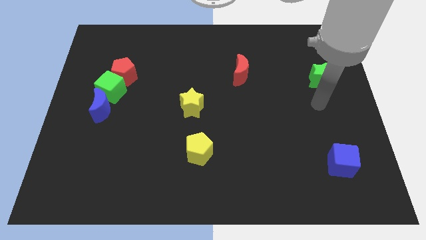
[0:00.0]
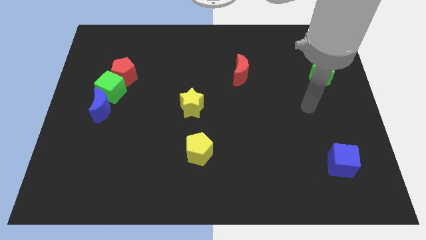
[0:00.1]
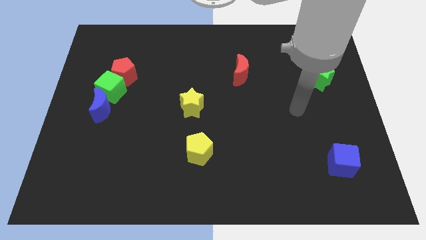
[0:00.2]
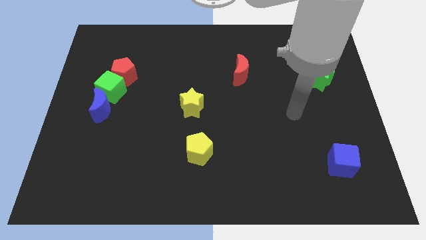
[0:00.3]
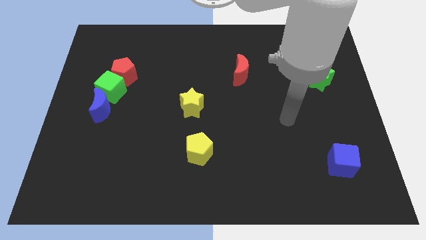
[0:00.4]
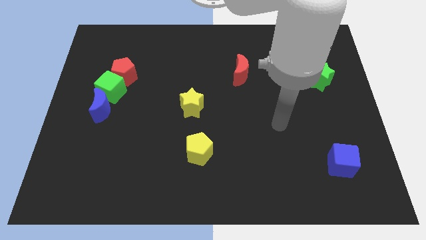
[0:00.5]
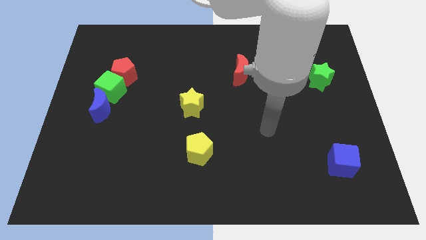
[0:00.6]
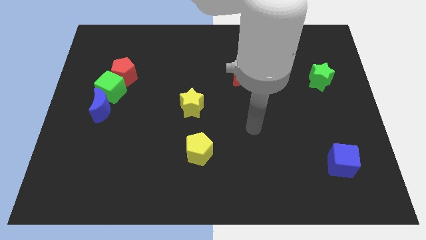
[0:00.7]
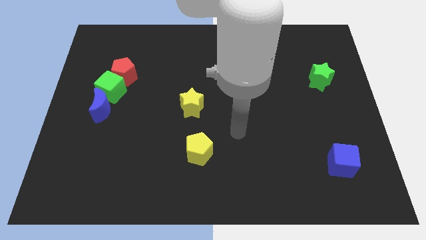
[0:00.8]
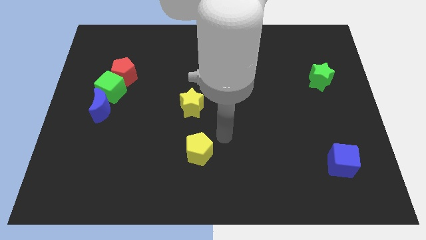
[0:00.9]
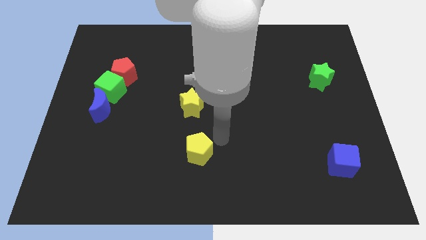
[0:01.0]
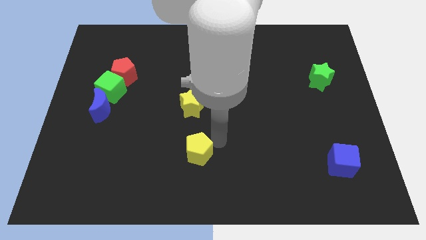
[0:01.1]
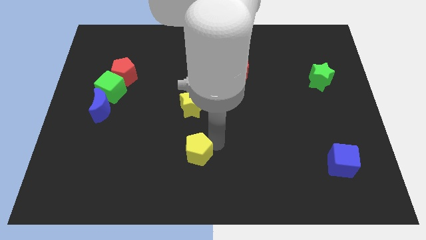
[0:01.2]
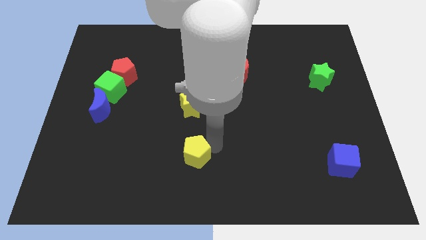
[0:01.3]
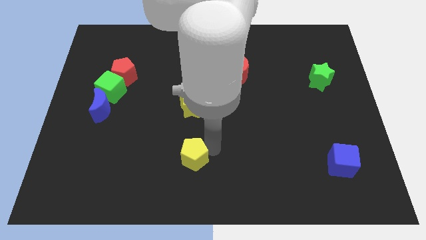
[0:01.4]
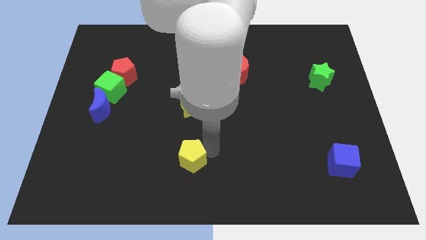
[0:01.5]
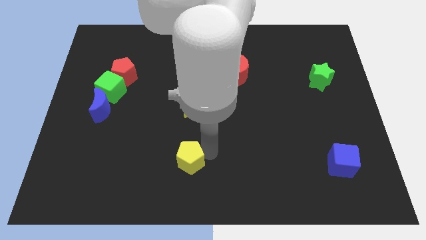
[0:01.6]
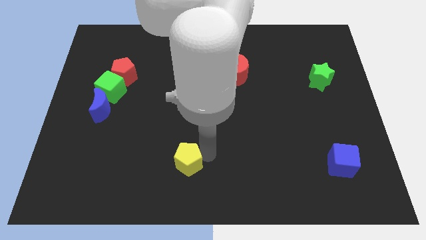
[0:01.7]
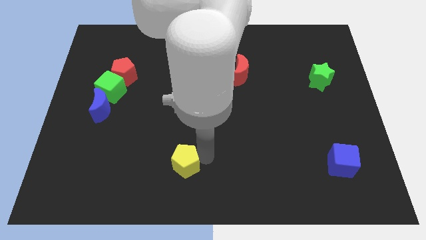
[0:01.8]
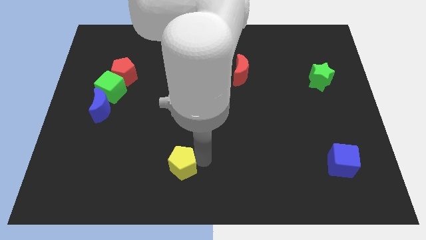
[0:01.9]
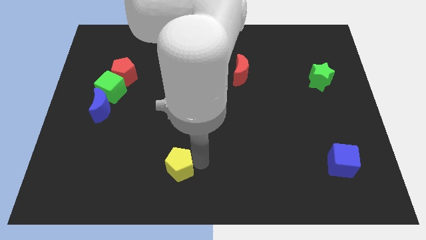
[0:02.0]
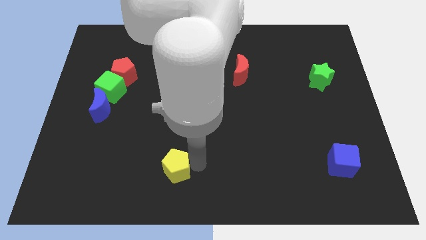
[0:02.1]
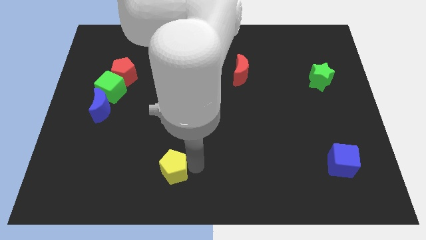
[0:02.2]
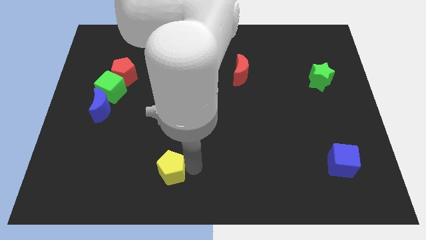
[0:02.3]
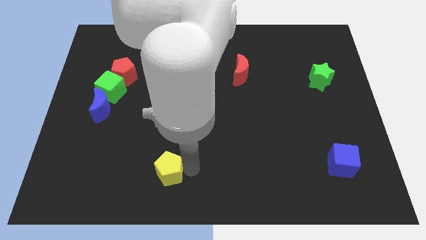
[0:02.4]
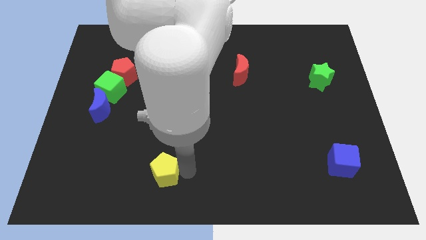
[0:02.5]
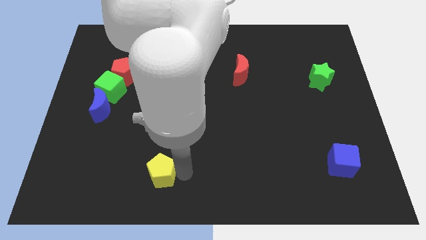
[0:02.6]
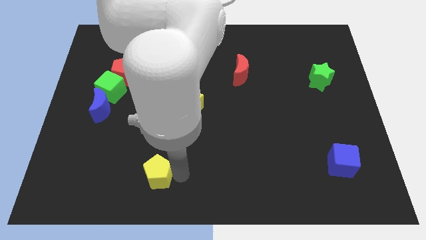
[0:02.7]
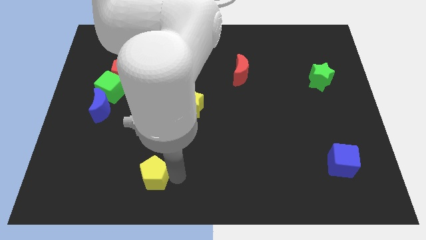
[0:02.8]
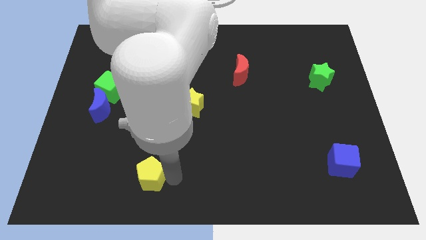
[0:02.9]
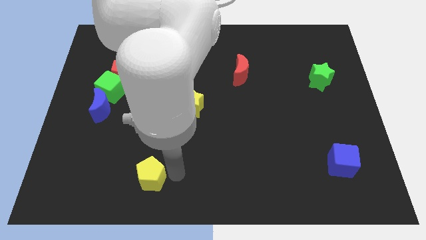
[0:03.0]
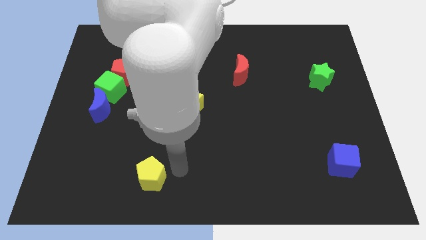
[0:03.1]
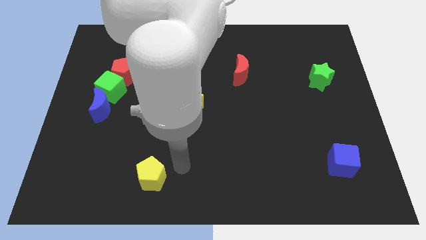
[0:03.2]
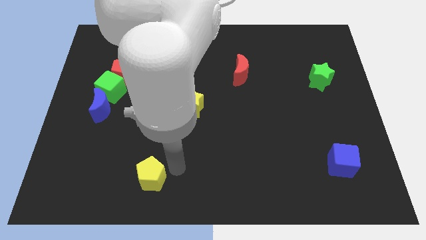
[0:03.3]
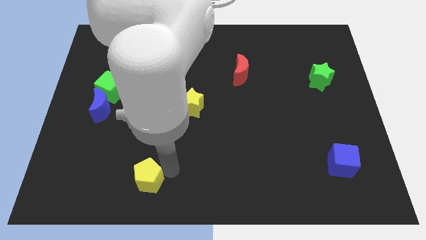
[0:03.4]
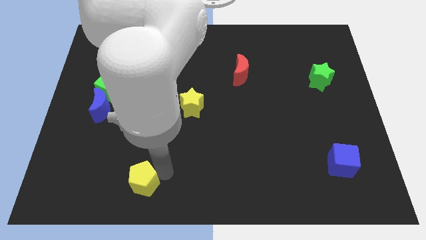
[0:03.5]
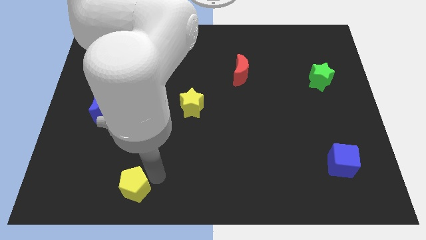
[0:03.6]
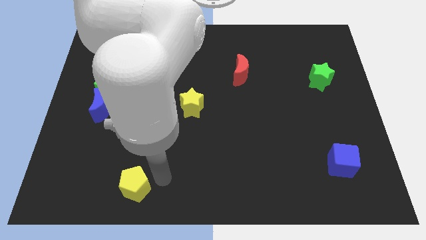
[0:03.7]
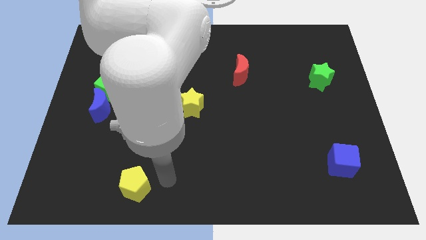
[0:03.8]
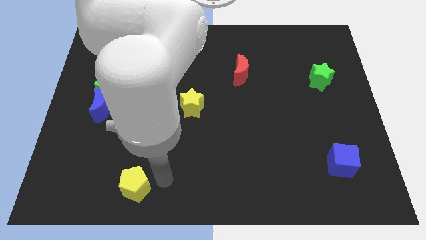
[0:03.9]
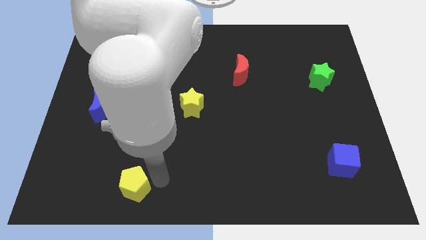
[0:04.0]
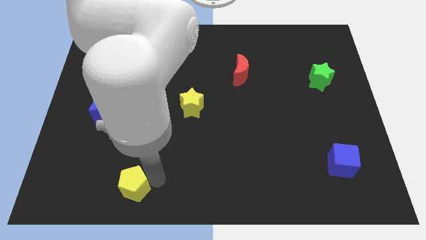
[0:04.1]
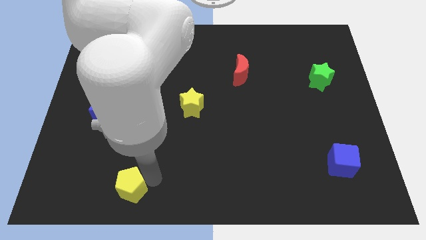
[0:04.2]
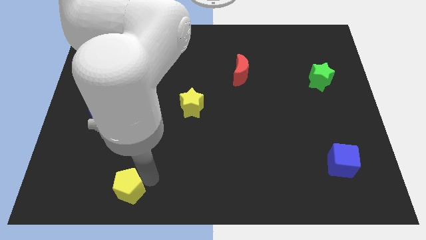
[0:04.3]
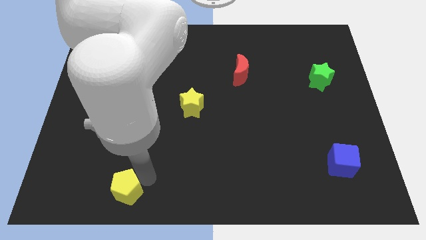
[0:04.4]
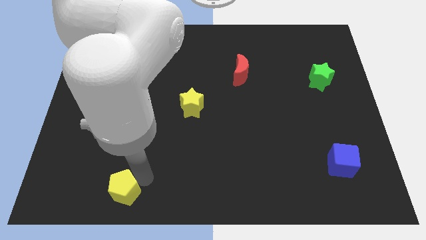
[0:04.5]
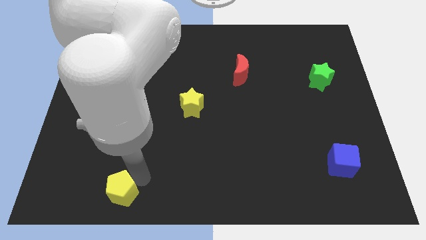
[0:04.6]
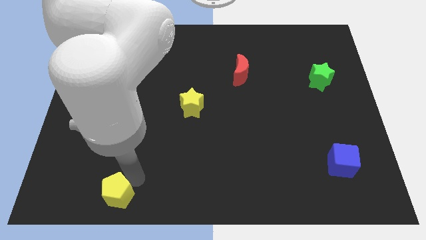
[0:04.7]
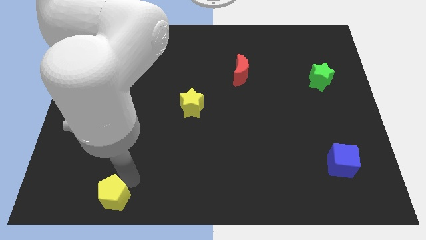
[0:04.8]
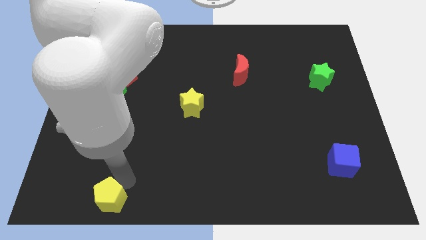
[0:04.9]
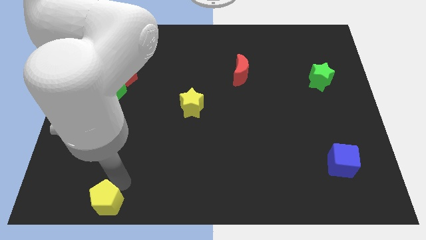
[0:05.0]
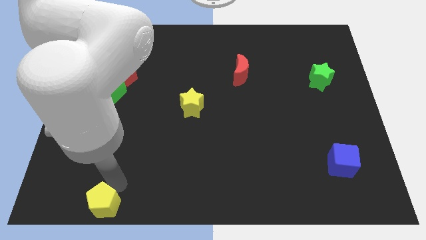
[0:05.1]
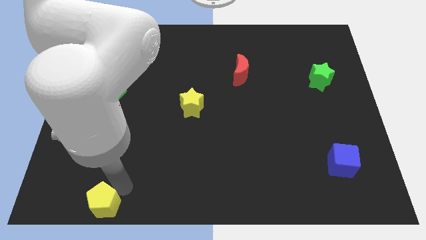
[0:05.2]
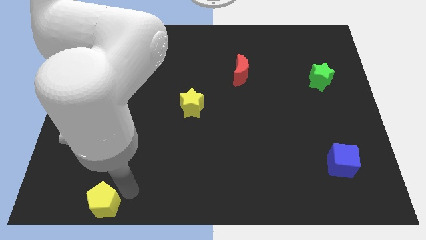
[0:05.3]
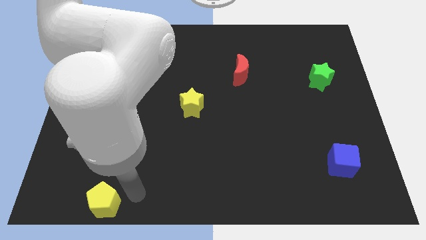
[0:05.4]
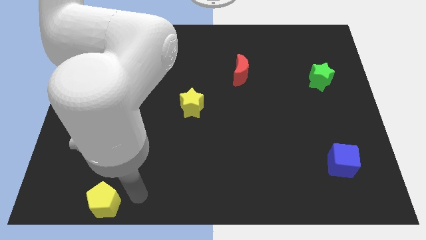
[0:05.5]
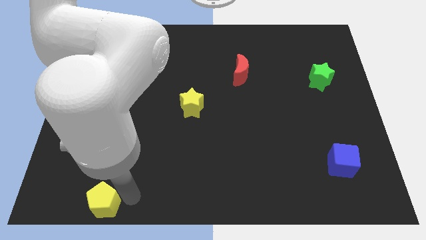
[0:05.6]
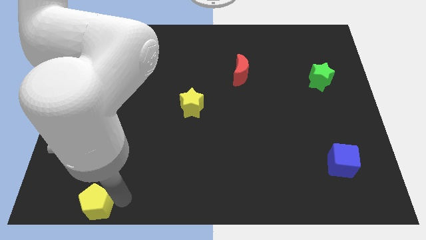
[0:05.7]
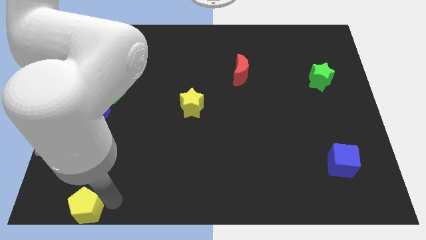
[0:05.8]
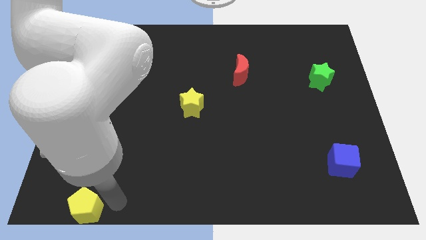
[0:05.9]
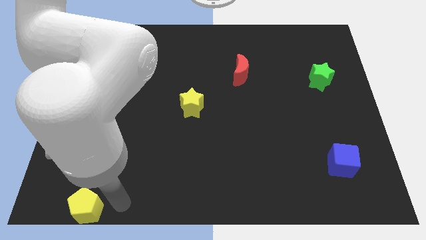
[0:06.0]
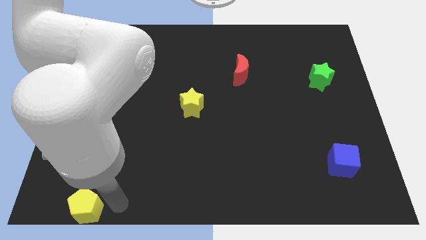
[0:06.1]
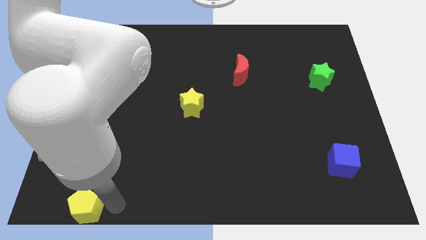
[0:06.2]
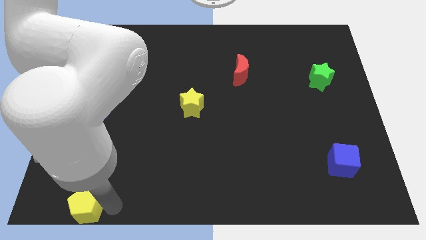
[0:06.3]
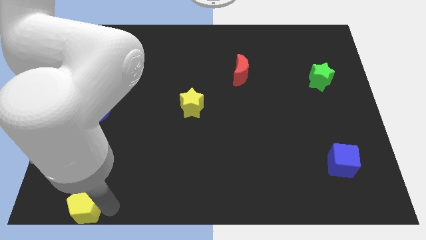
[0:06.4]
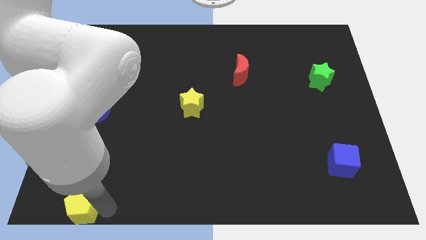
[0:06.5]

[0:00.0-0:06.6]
push the yellow pentagon to the lower left corner

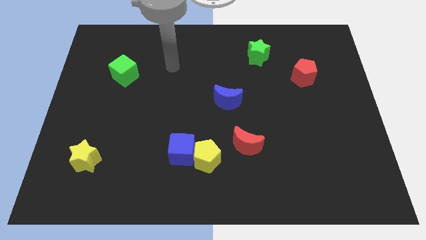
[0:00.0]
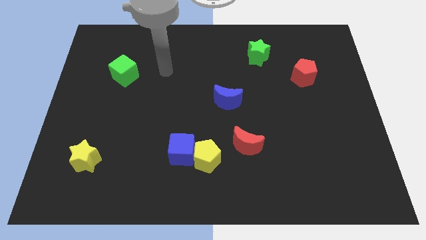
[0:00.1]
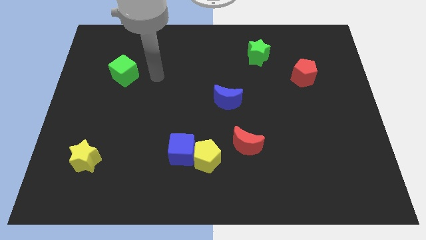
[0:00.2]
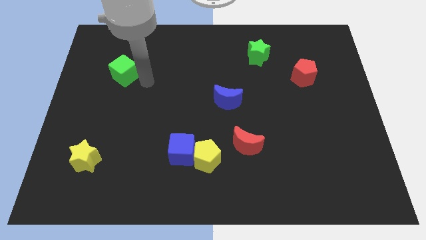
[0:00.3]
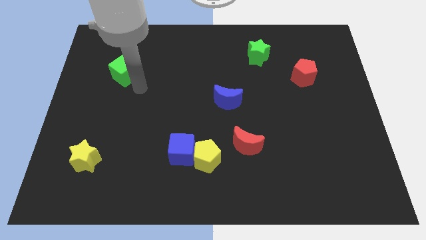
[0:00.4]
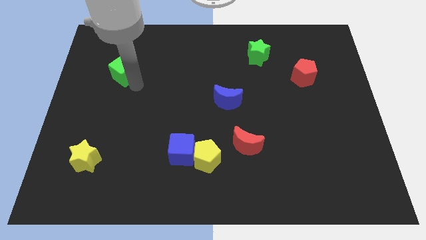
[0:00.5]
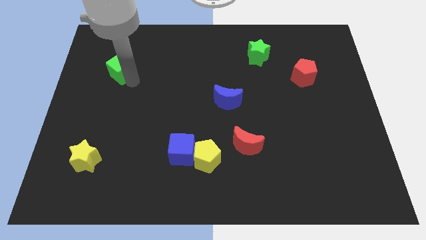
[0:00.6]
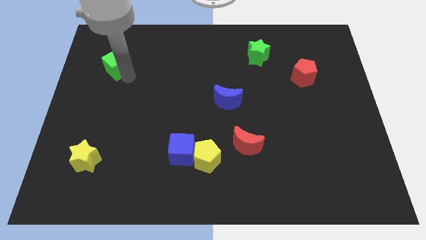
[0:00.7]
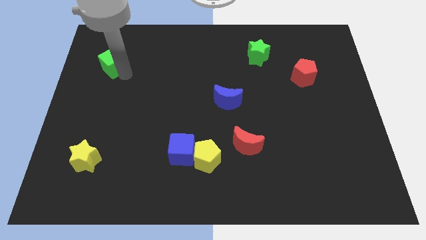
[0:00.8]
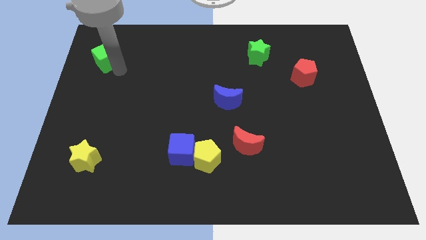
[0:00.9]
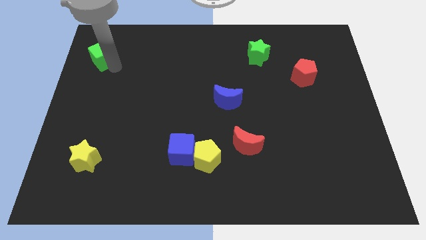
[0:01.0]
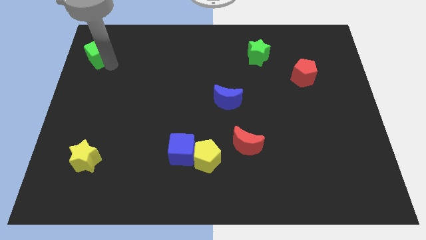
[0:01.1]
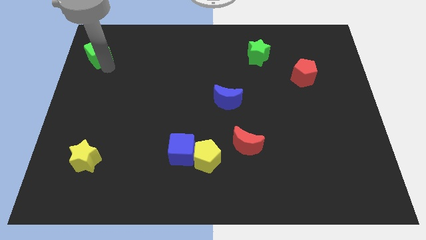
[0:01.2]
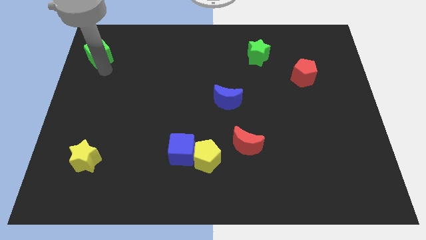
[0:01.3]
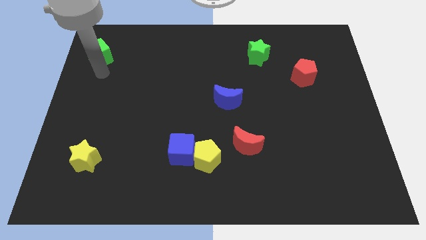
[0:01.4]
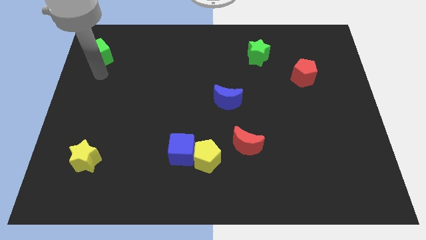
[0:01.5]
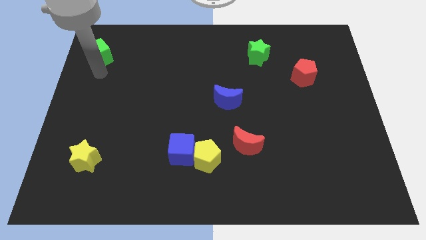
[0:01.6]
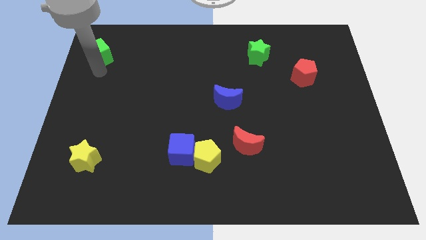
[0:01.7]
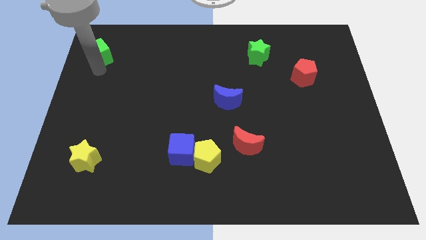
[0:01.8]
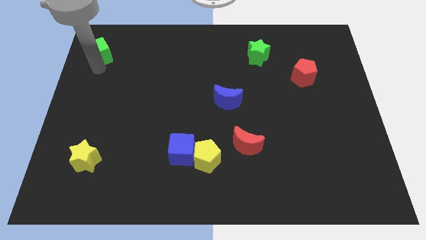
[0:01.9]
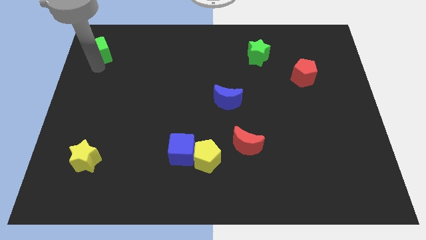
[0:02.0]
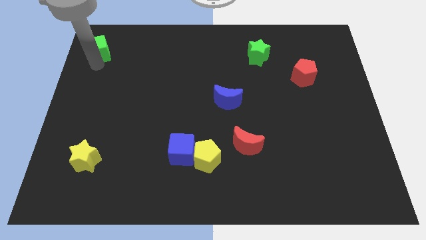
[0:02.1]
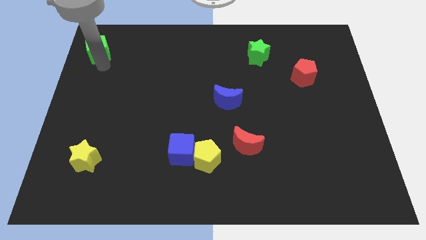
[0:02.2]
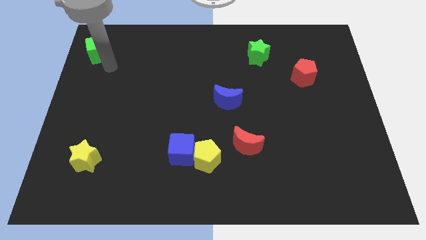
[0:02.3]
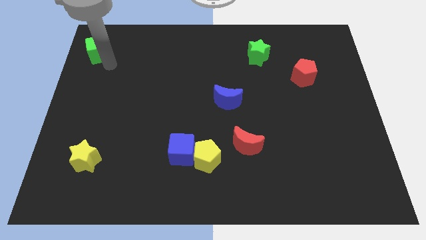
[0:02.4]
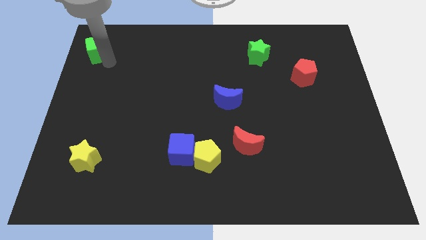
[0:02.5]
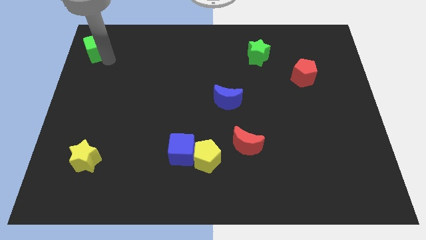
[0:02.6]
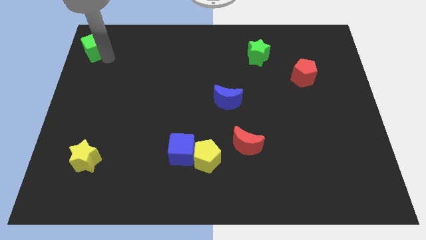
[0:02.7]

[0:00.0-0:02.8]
put the green cube to the upper left corner
